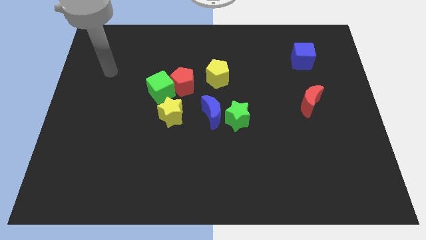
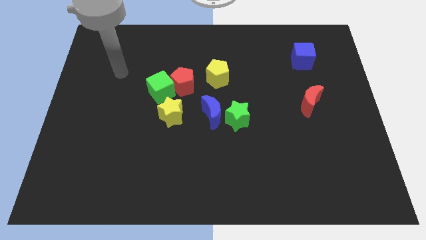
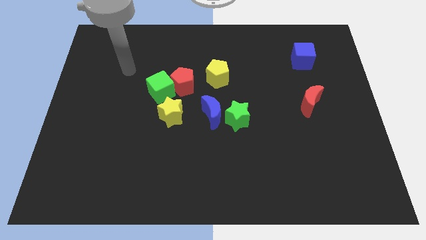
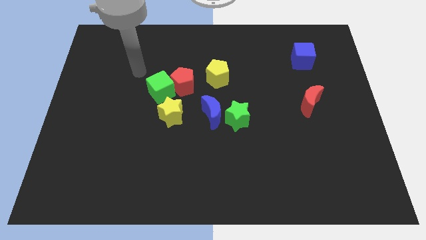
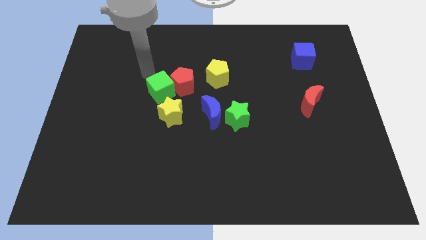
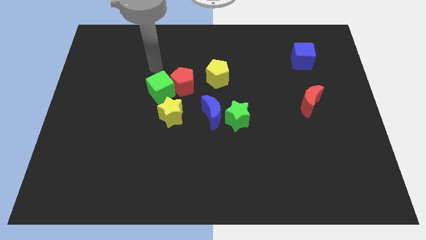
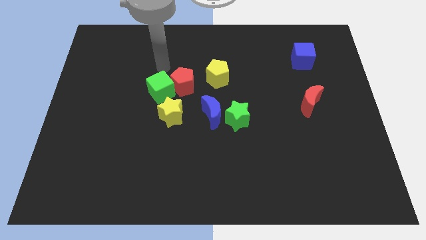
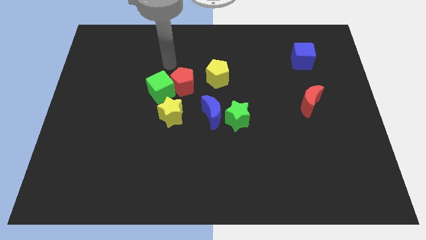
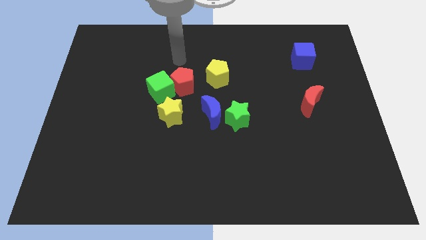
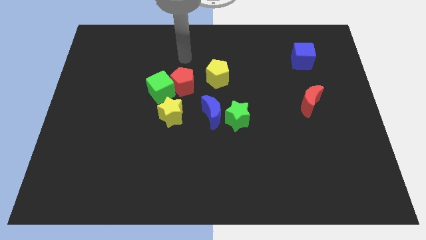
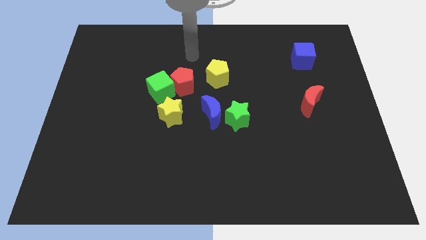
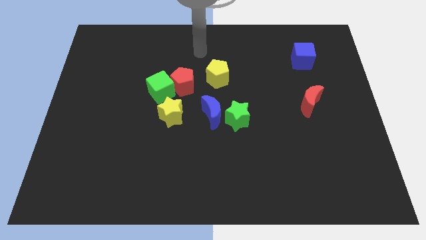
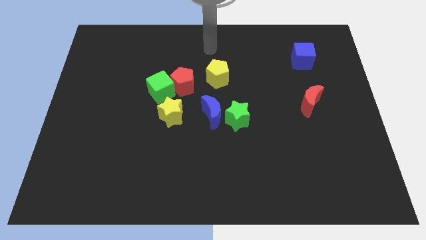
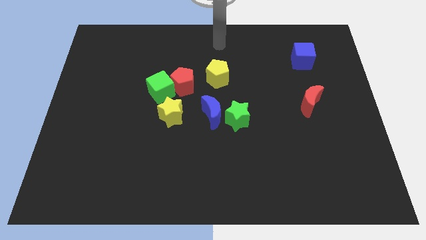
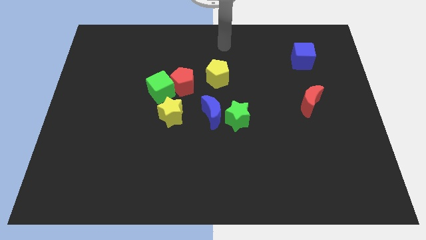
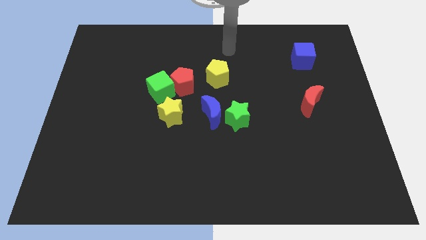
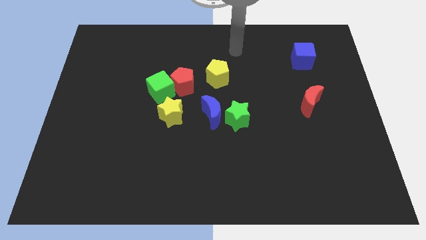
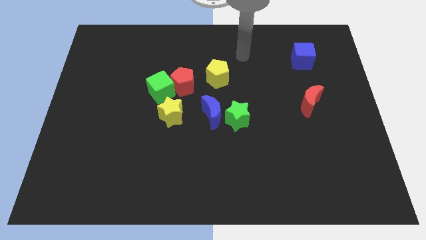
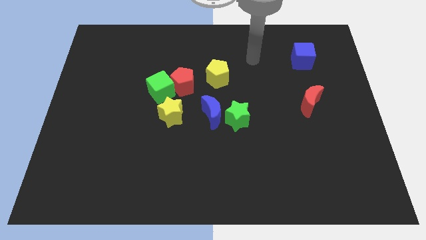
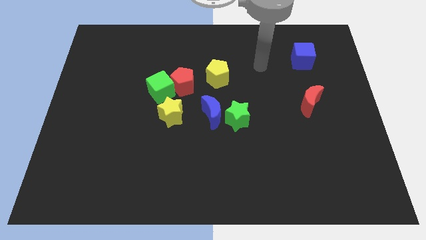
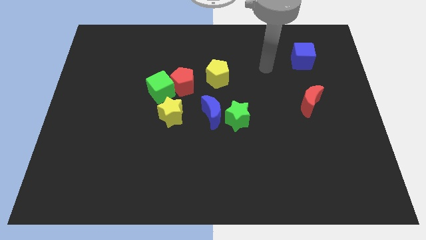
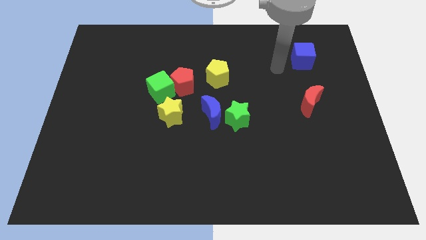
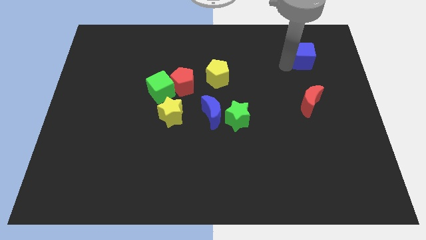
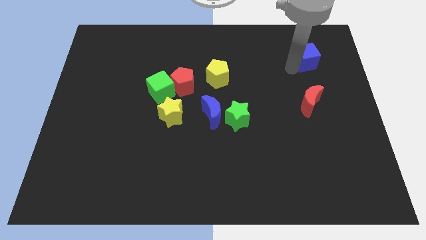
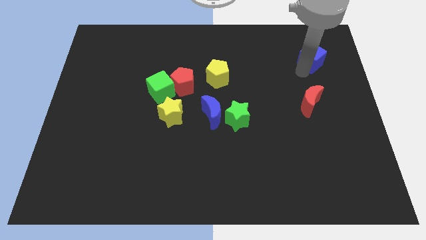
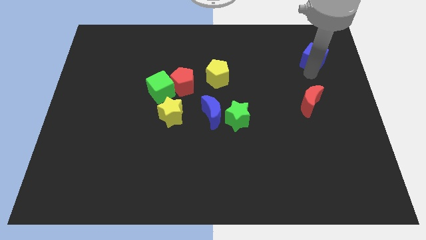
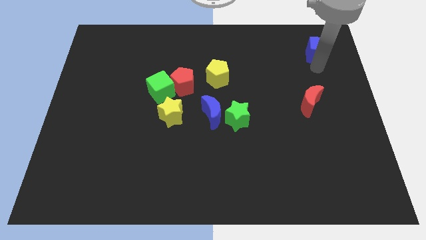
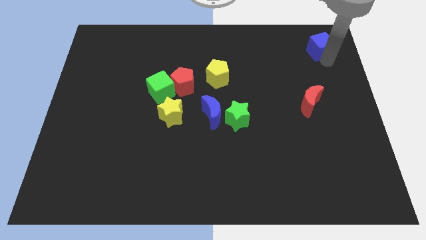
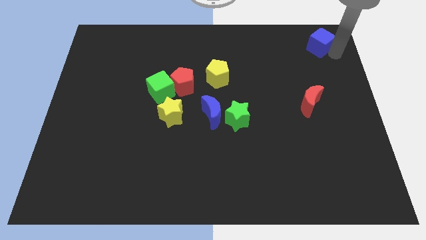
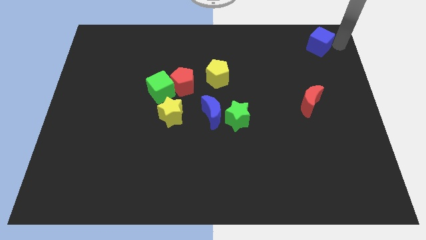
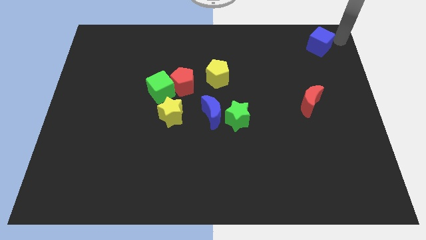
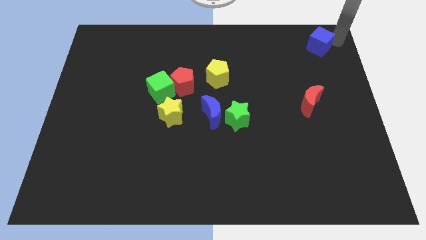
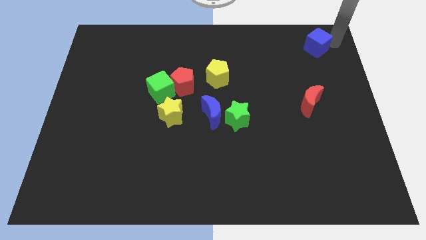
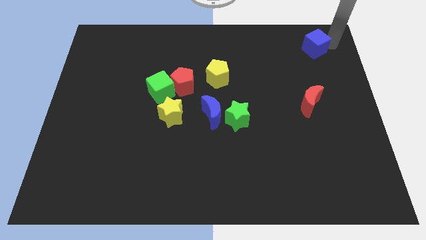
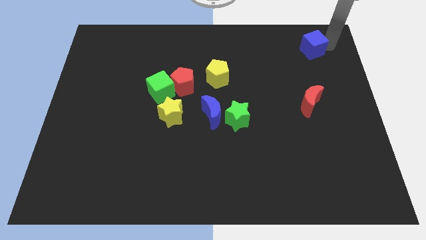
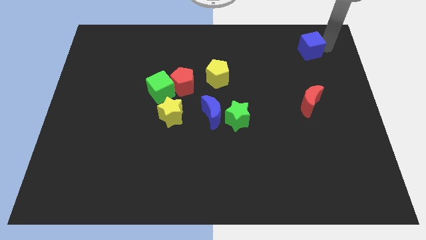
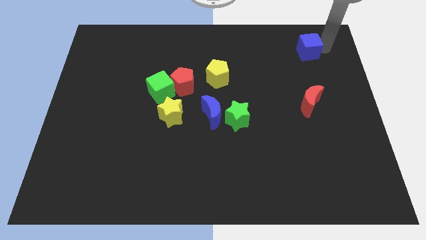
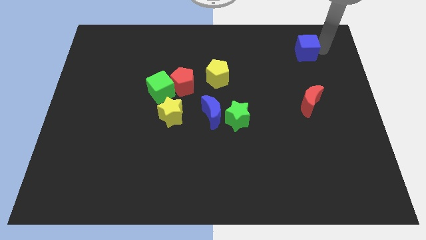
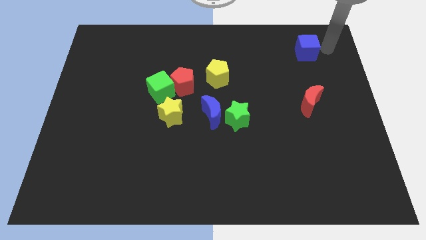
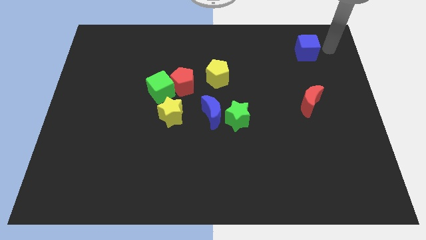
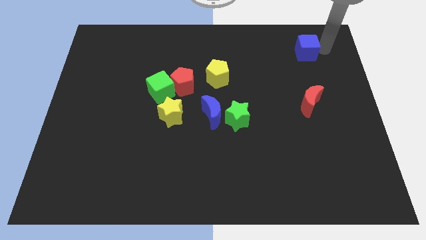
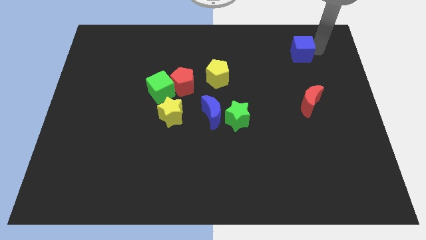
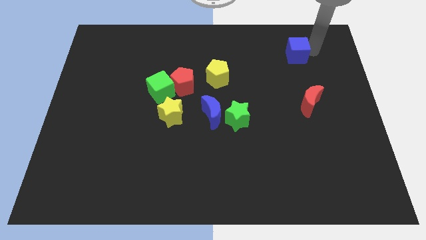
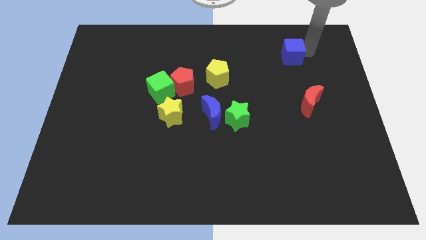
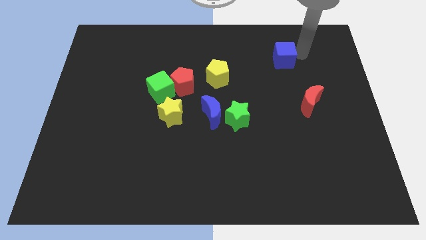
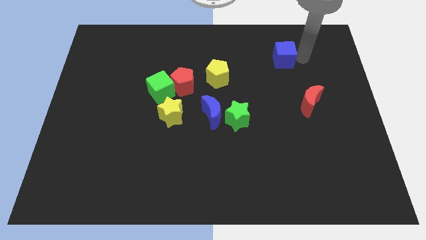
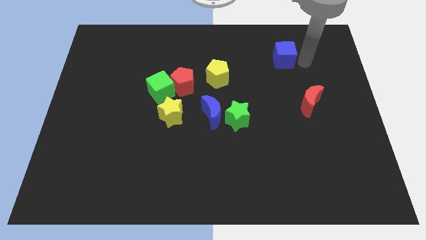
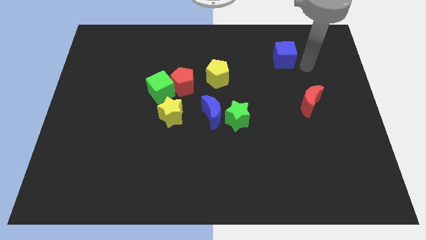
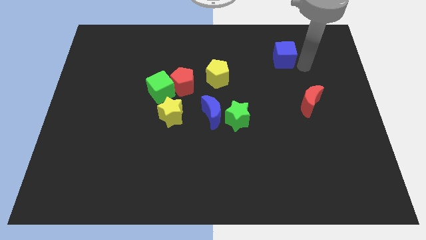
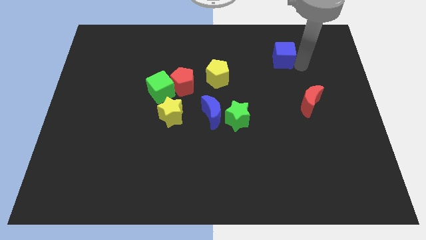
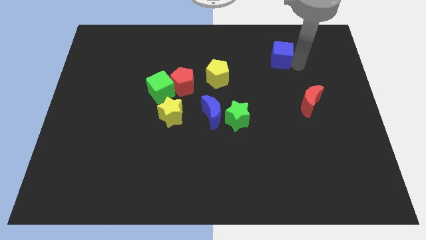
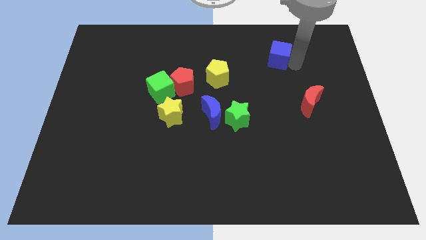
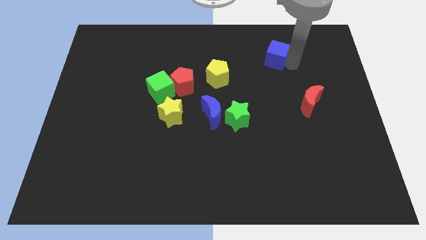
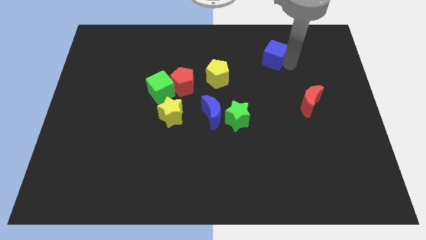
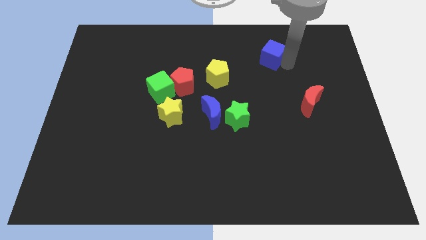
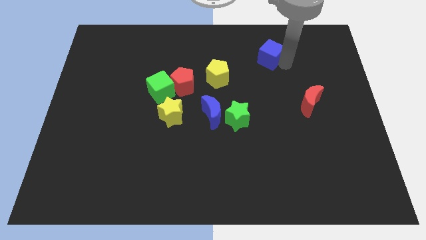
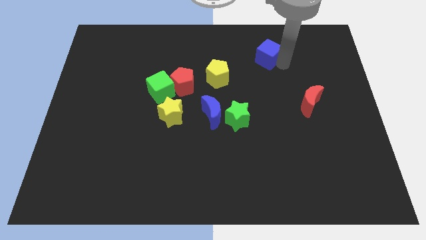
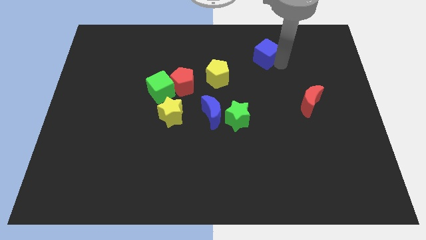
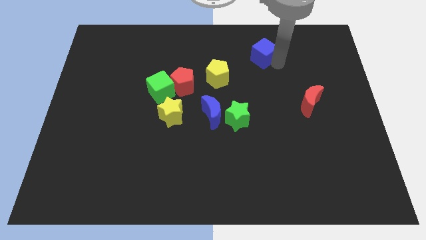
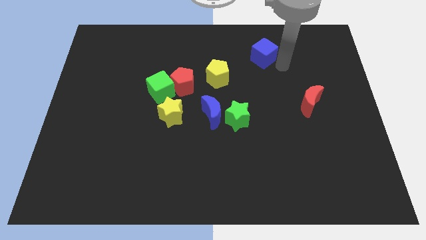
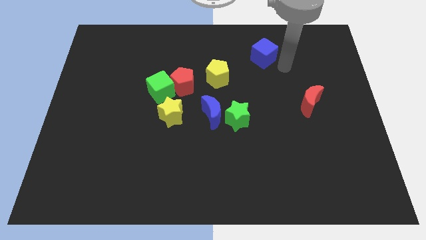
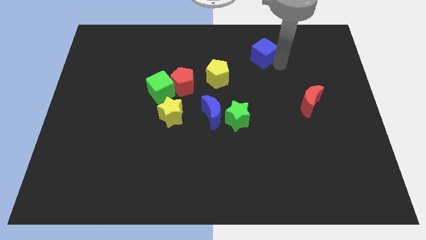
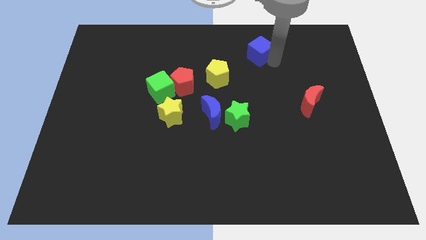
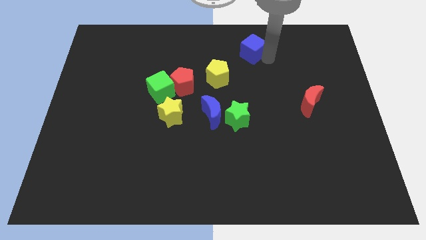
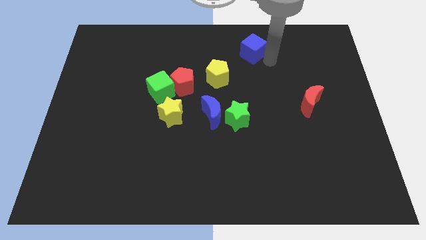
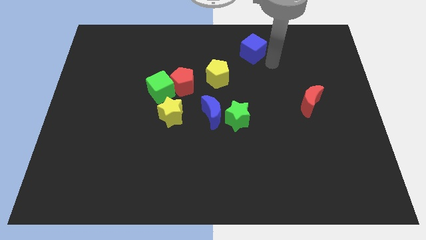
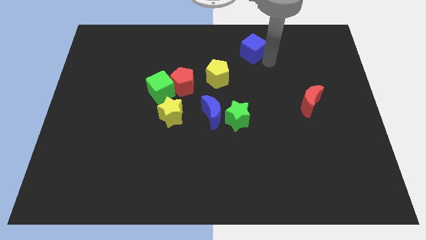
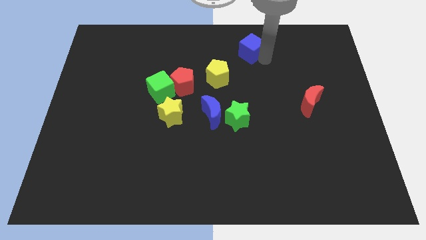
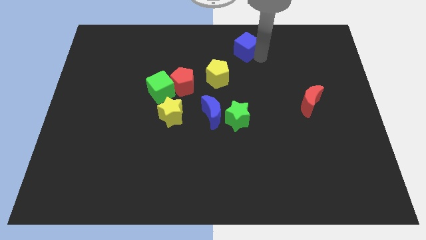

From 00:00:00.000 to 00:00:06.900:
move the blue cube to the towards your base
